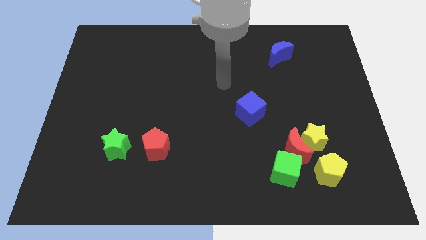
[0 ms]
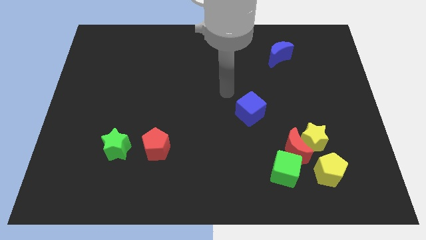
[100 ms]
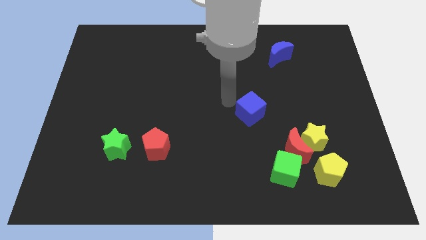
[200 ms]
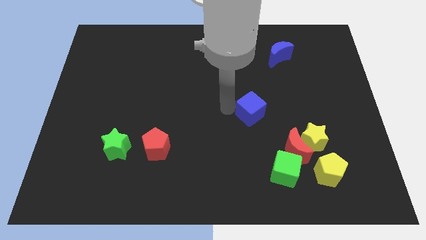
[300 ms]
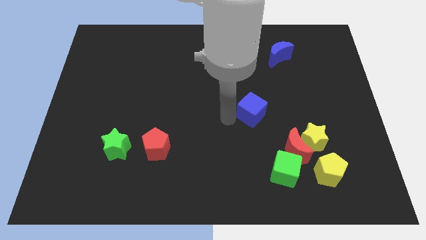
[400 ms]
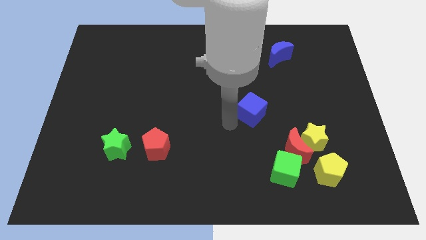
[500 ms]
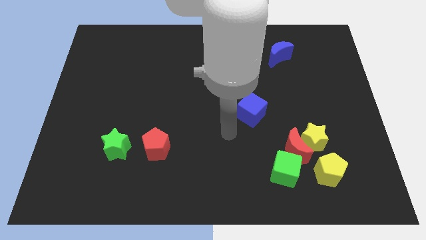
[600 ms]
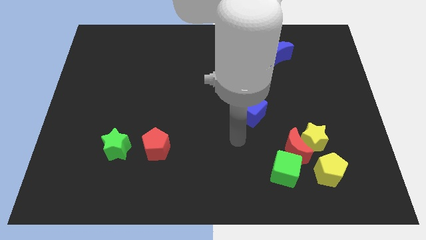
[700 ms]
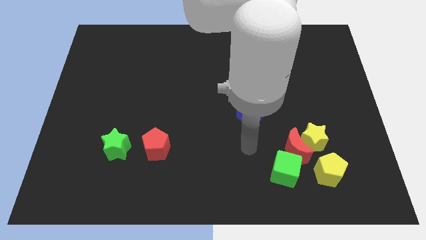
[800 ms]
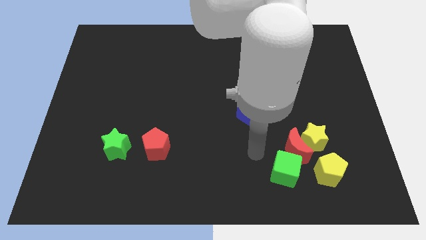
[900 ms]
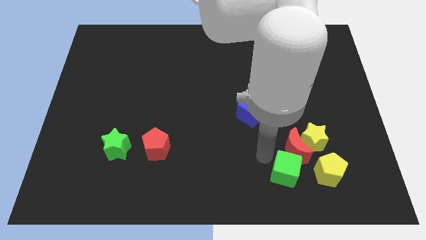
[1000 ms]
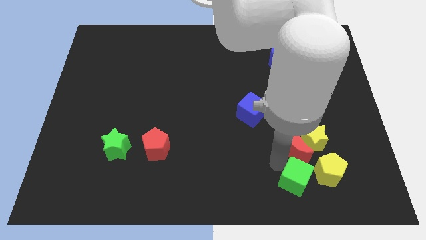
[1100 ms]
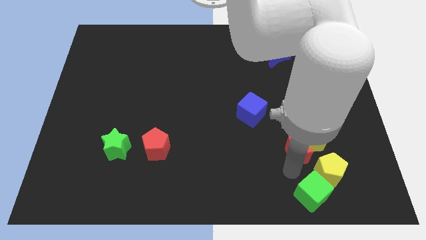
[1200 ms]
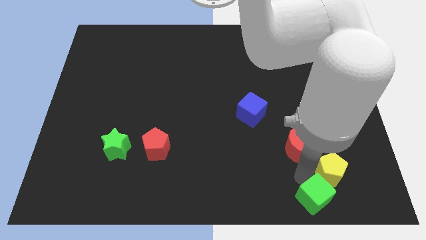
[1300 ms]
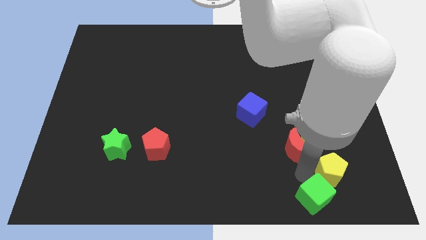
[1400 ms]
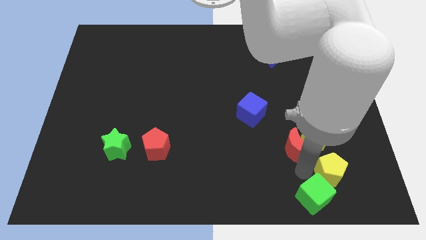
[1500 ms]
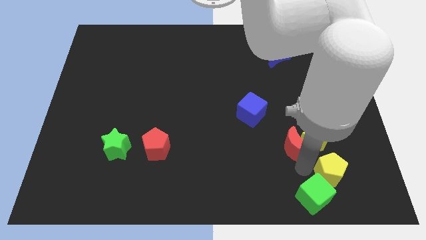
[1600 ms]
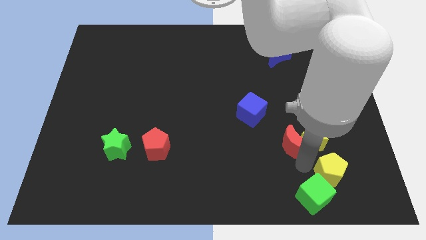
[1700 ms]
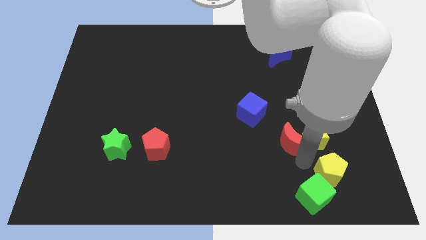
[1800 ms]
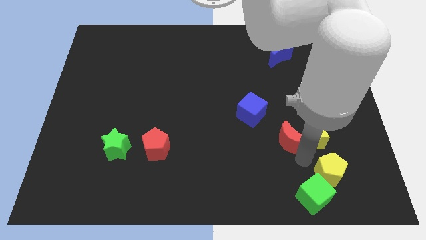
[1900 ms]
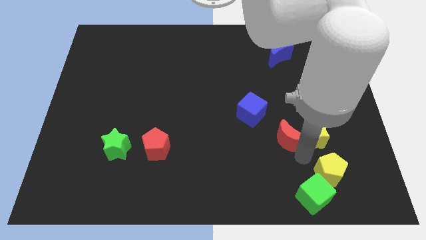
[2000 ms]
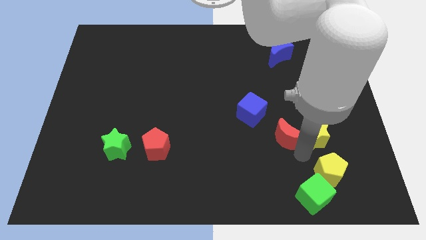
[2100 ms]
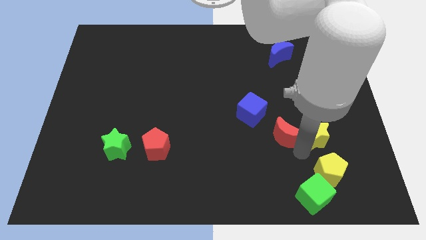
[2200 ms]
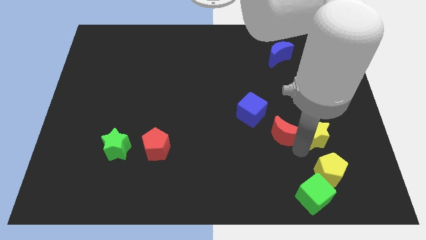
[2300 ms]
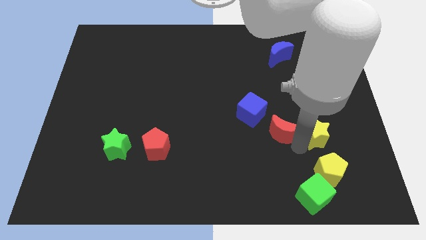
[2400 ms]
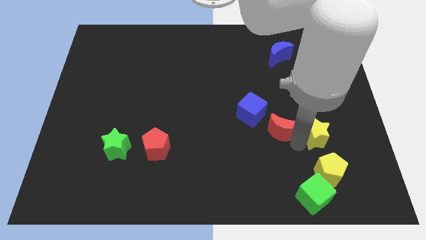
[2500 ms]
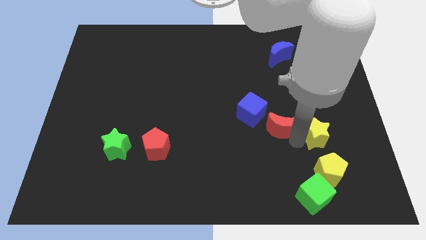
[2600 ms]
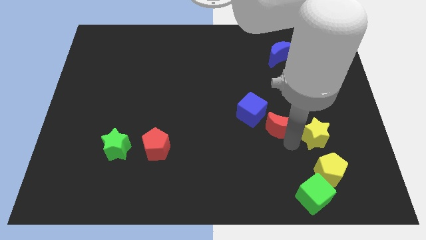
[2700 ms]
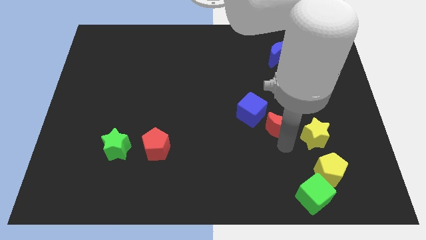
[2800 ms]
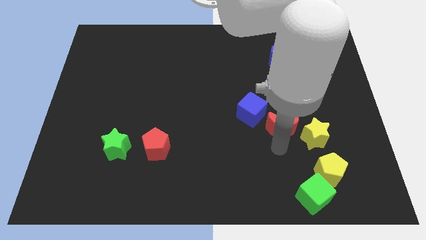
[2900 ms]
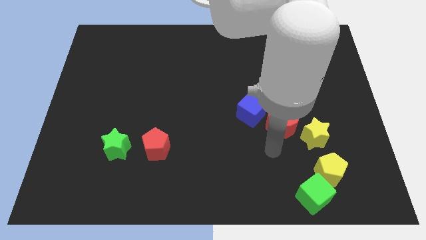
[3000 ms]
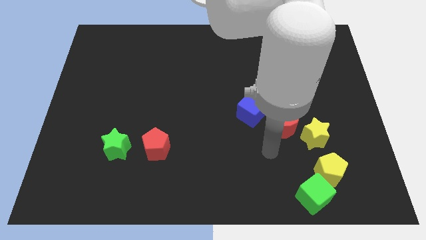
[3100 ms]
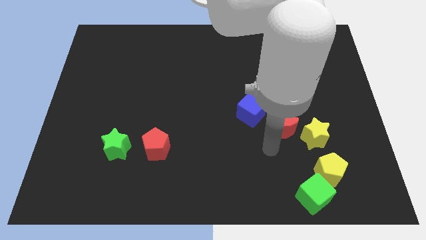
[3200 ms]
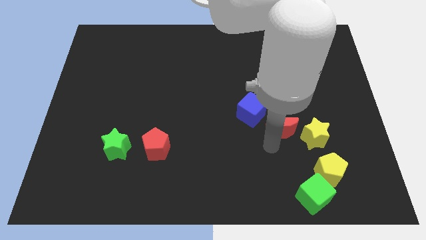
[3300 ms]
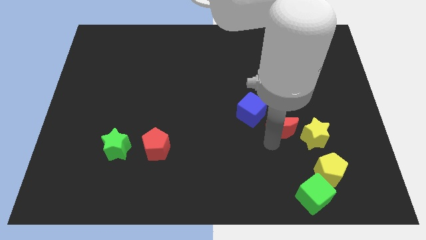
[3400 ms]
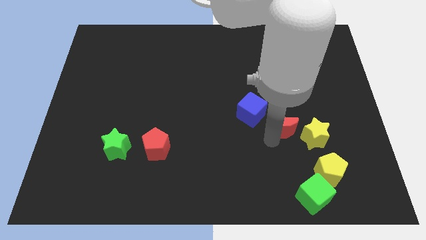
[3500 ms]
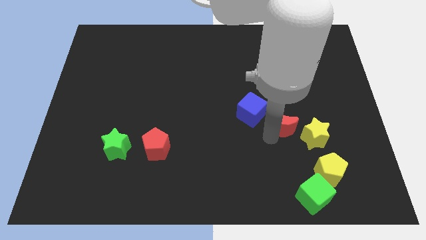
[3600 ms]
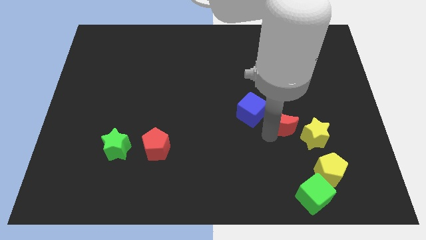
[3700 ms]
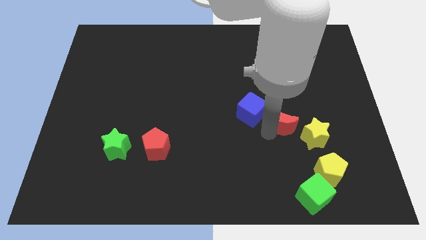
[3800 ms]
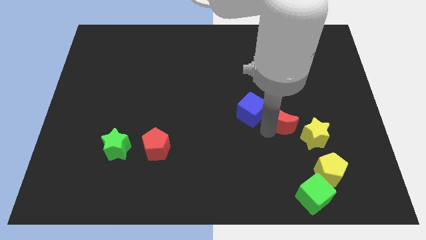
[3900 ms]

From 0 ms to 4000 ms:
slightly move the red moon up

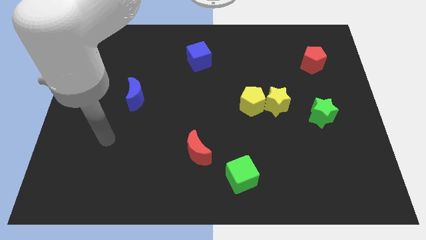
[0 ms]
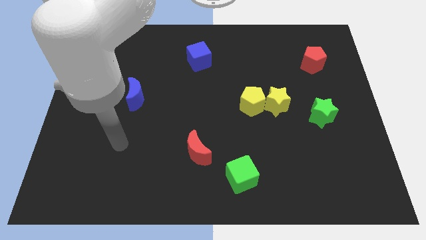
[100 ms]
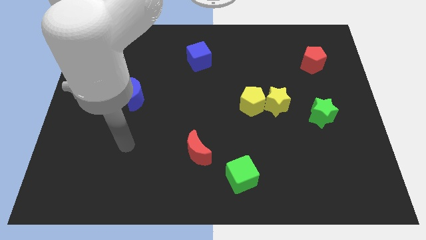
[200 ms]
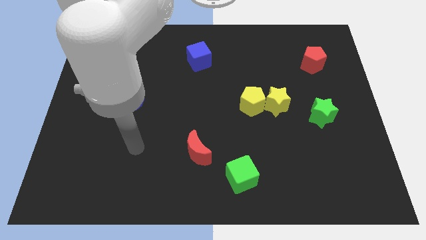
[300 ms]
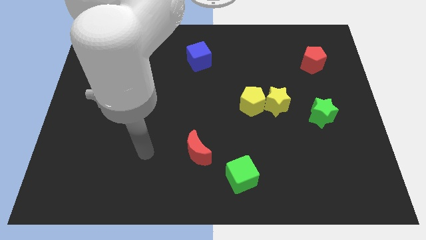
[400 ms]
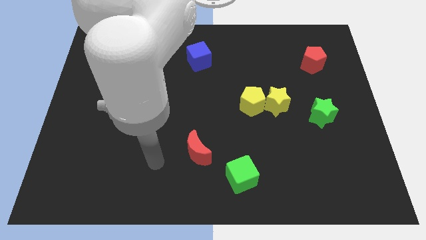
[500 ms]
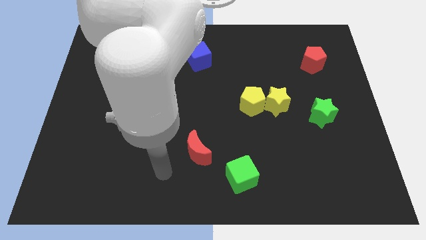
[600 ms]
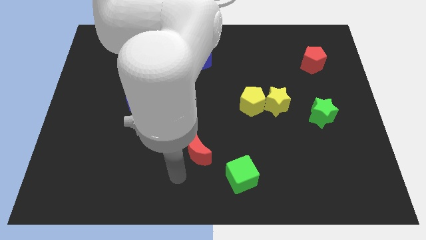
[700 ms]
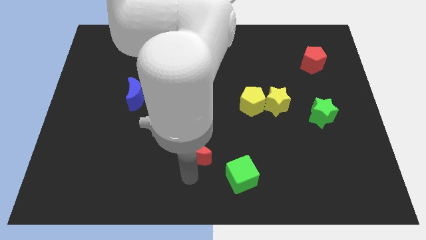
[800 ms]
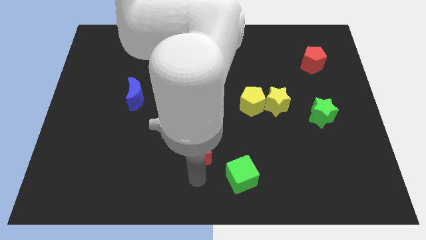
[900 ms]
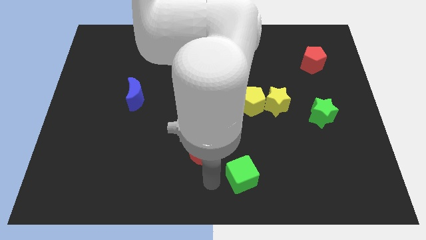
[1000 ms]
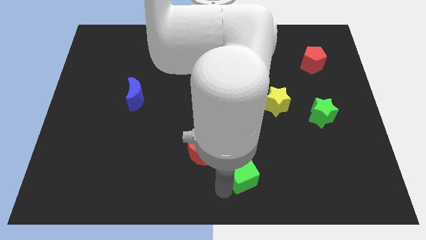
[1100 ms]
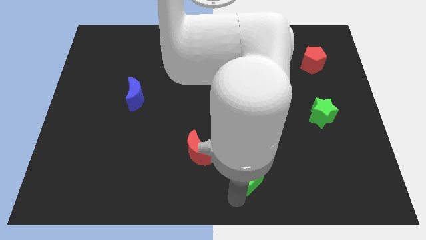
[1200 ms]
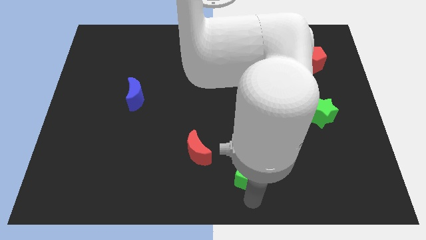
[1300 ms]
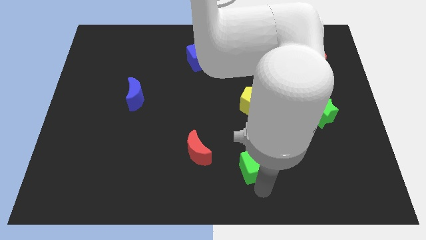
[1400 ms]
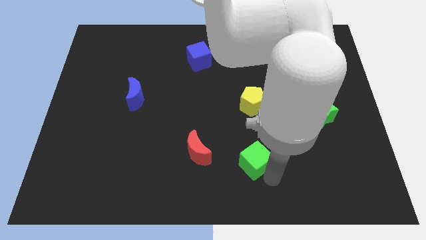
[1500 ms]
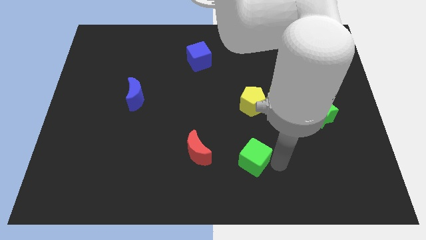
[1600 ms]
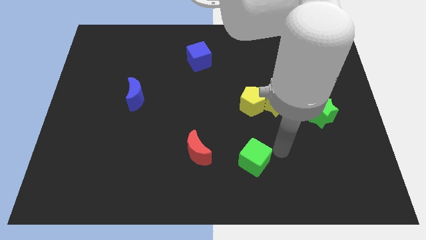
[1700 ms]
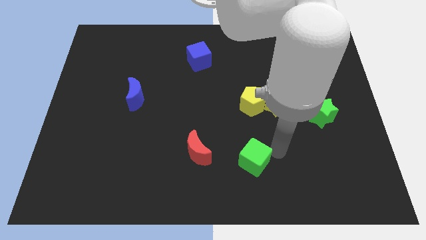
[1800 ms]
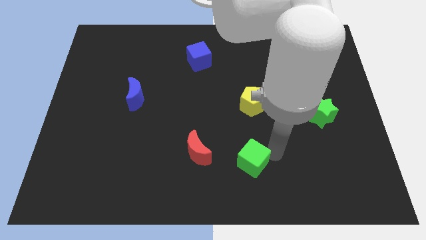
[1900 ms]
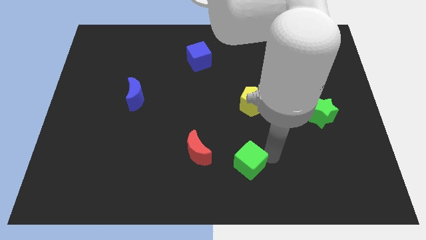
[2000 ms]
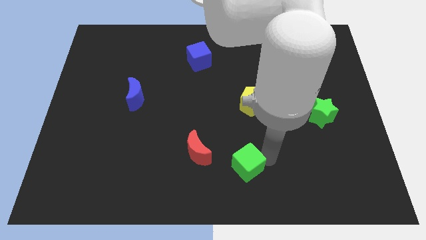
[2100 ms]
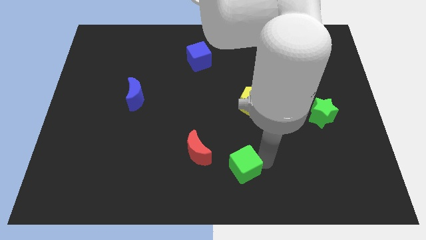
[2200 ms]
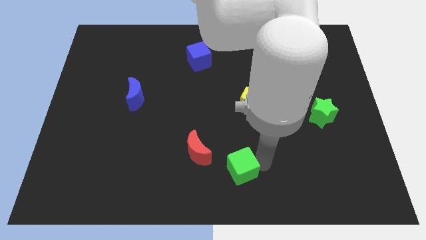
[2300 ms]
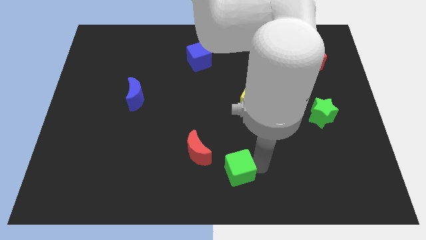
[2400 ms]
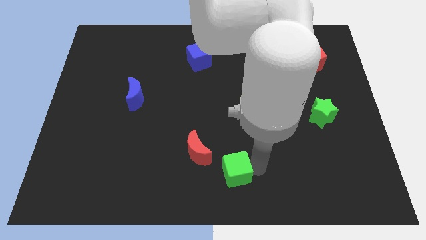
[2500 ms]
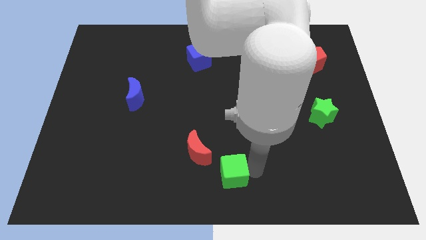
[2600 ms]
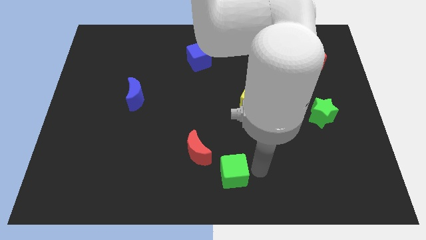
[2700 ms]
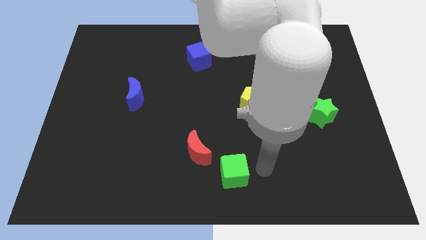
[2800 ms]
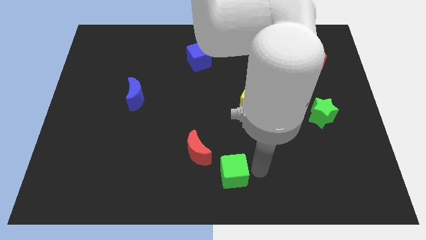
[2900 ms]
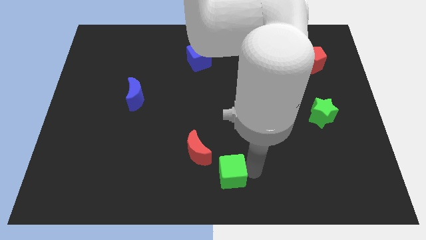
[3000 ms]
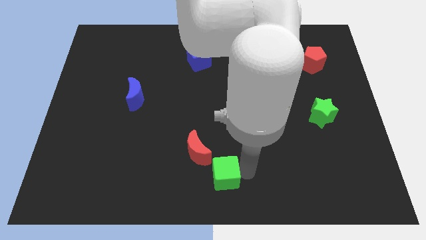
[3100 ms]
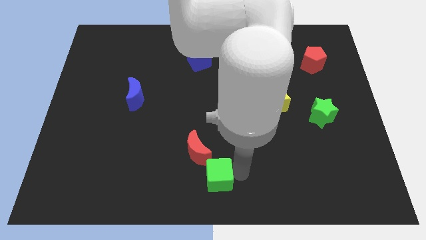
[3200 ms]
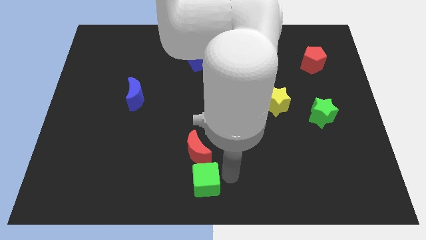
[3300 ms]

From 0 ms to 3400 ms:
slide the green cube slightly left

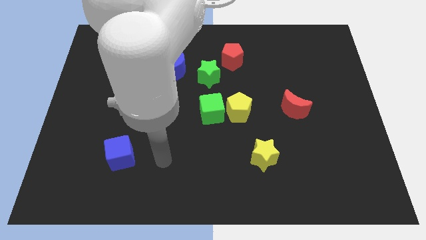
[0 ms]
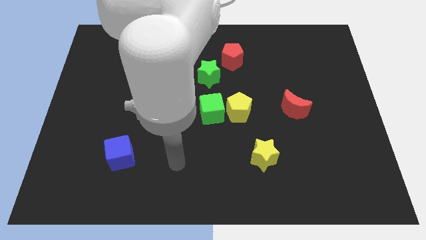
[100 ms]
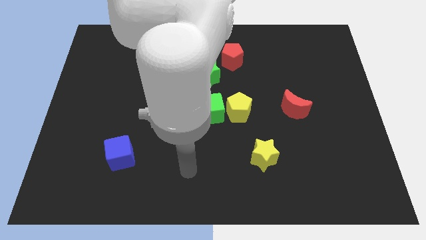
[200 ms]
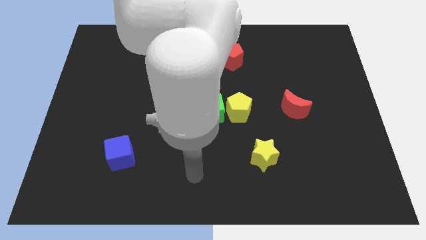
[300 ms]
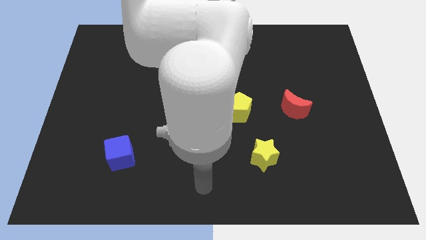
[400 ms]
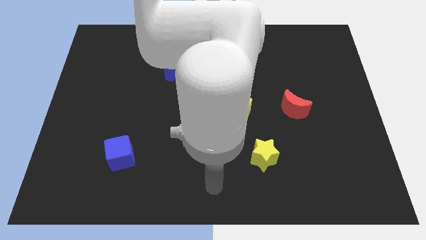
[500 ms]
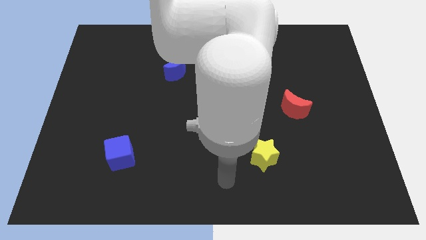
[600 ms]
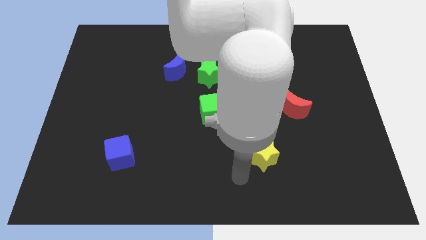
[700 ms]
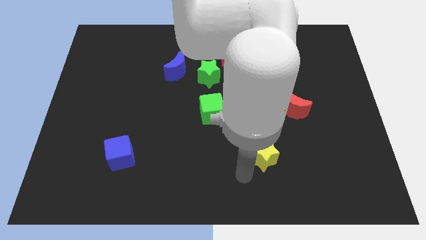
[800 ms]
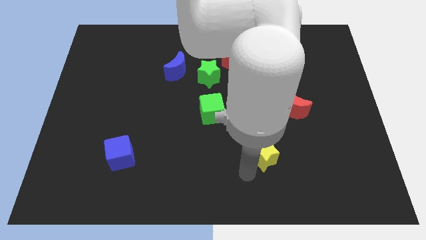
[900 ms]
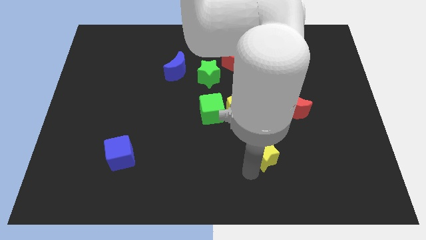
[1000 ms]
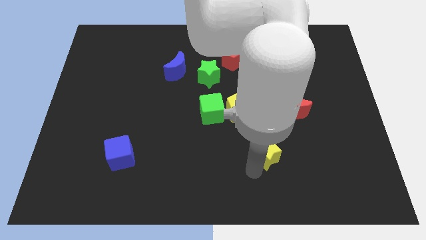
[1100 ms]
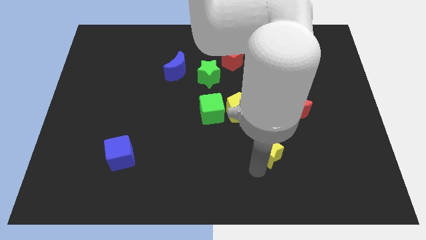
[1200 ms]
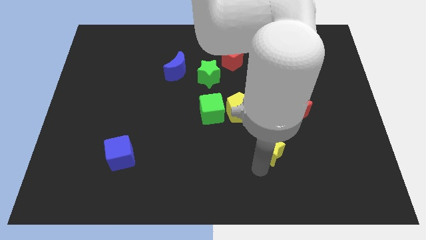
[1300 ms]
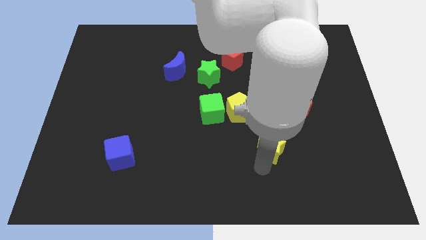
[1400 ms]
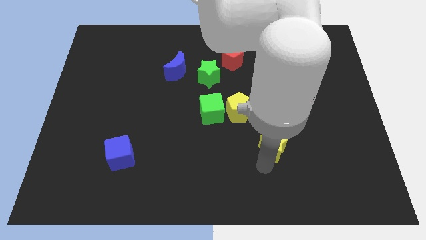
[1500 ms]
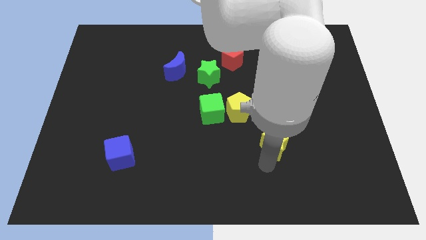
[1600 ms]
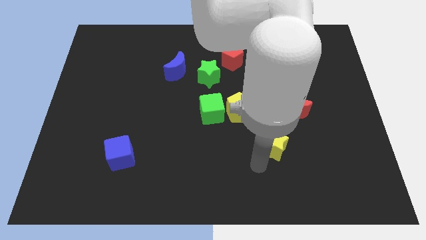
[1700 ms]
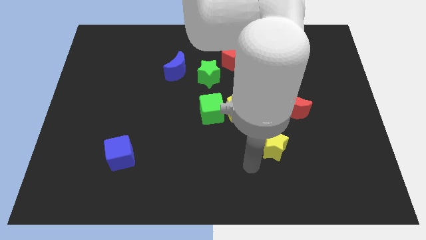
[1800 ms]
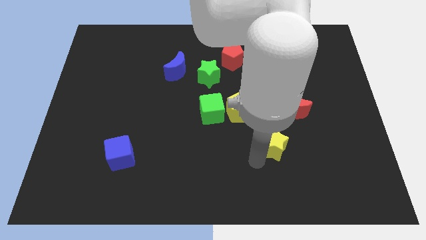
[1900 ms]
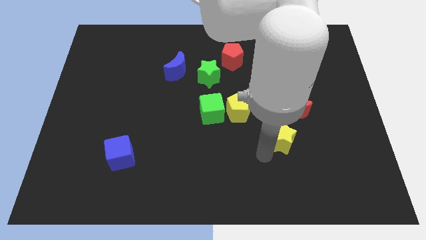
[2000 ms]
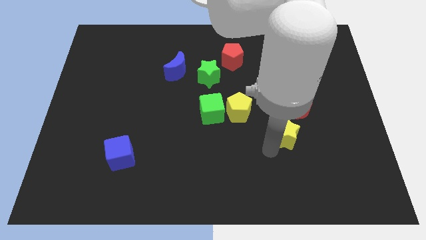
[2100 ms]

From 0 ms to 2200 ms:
slide the yellow star diagonally upwards and to the right a little
